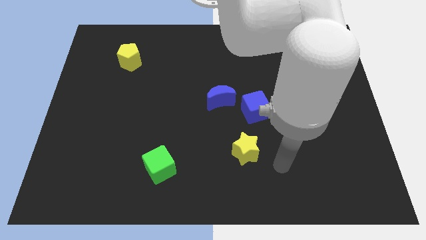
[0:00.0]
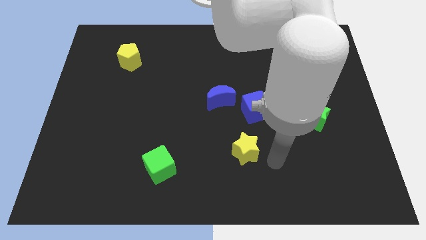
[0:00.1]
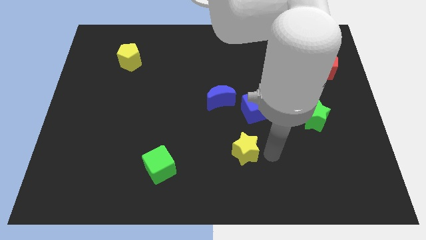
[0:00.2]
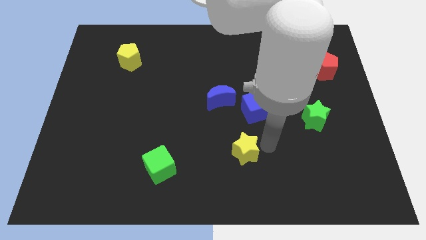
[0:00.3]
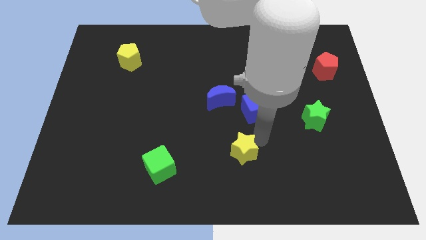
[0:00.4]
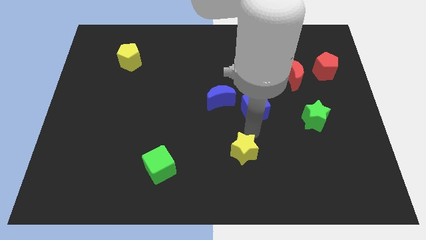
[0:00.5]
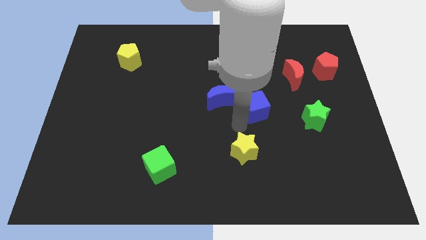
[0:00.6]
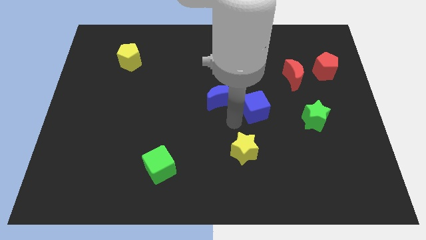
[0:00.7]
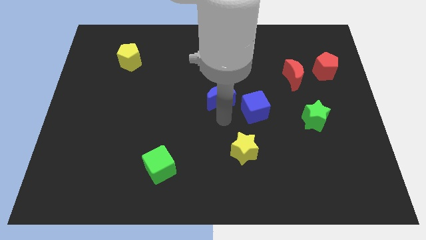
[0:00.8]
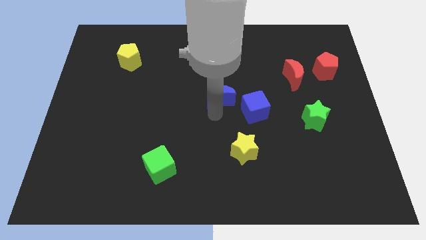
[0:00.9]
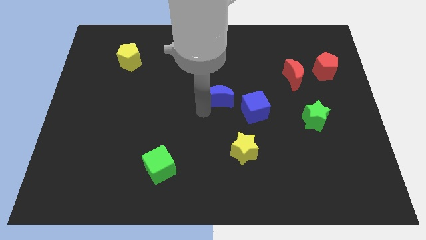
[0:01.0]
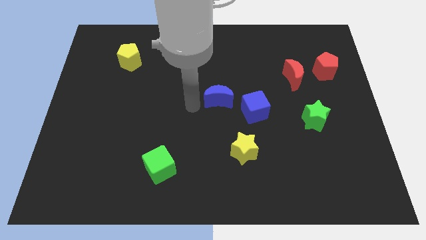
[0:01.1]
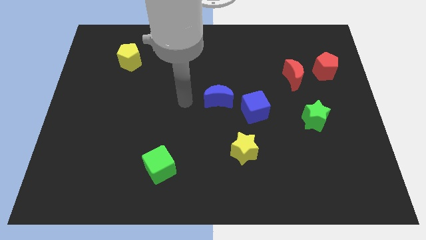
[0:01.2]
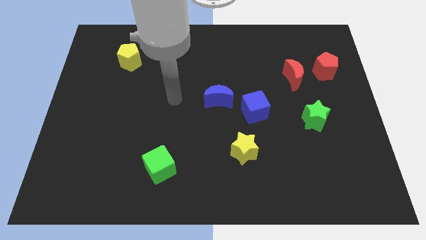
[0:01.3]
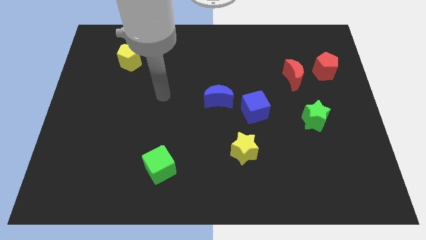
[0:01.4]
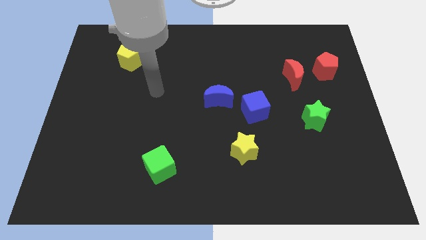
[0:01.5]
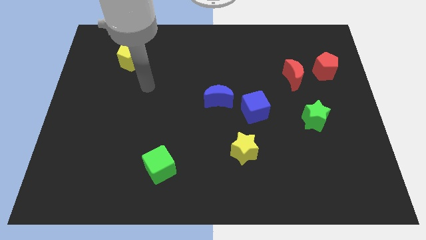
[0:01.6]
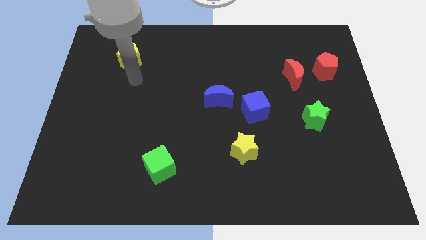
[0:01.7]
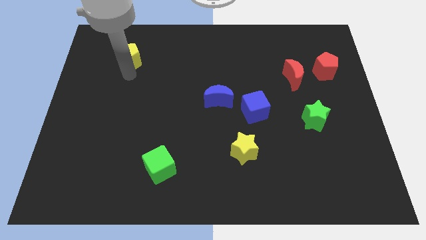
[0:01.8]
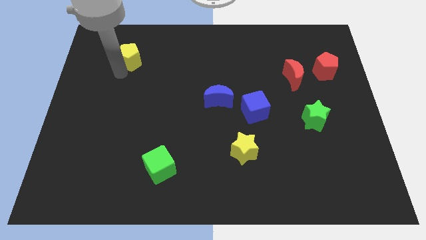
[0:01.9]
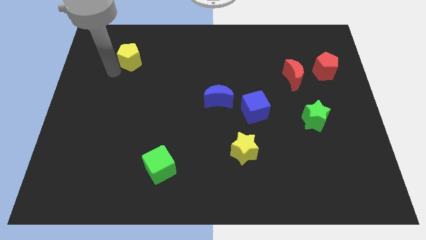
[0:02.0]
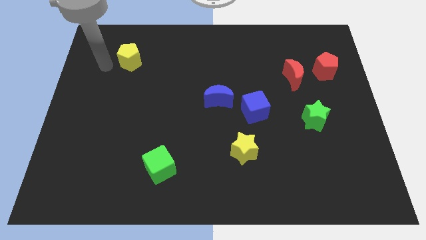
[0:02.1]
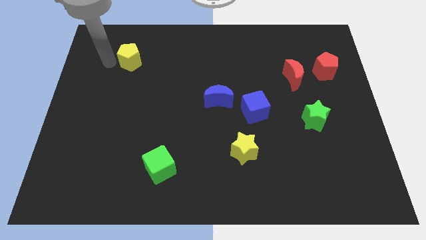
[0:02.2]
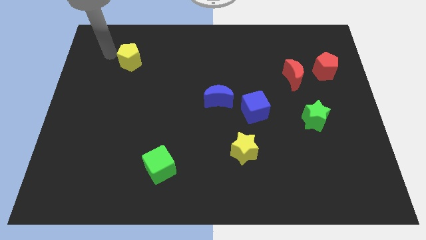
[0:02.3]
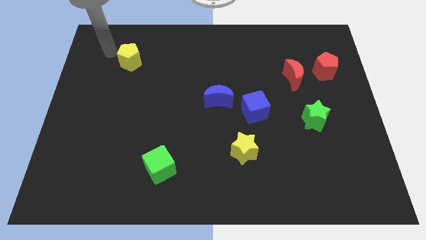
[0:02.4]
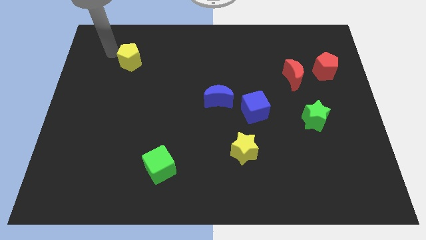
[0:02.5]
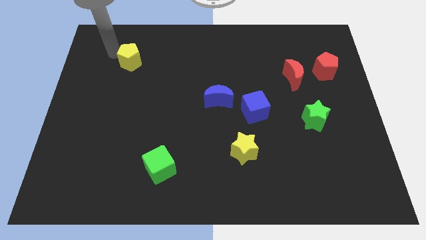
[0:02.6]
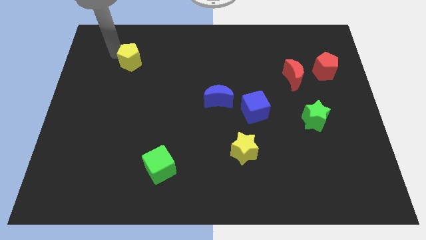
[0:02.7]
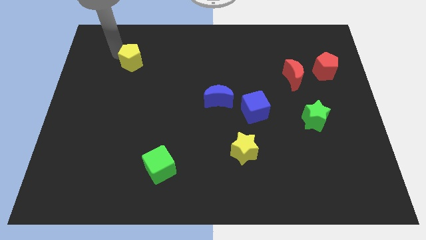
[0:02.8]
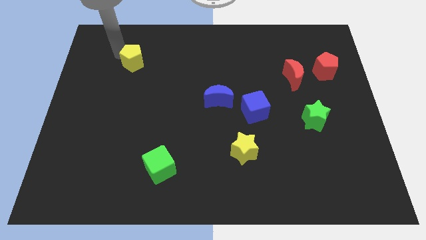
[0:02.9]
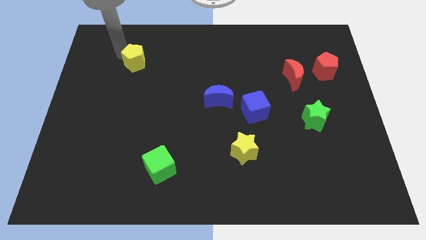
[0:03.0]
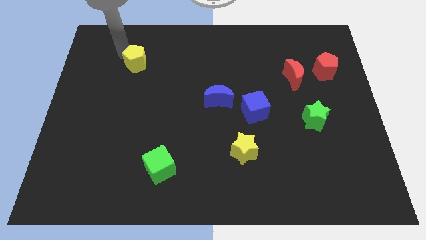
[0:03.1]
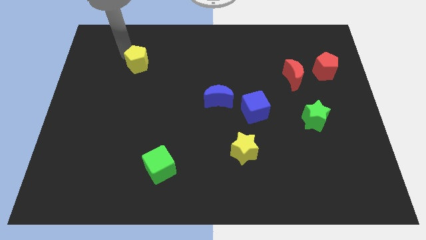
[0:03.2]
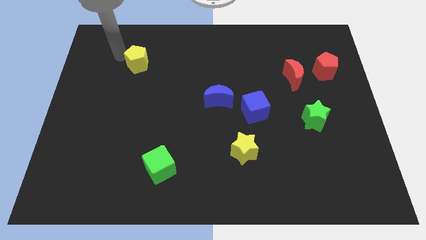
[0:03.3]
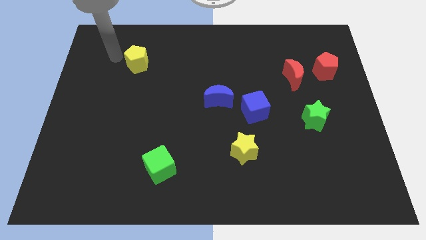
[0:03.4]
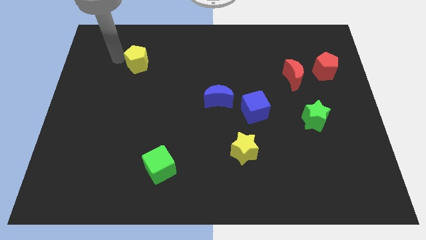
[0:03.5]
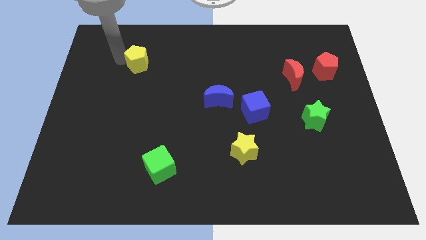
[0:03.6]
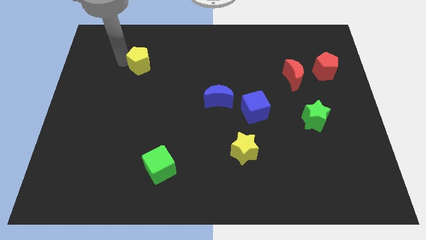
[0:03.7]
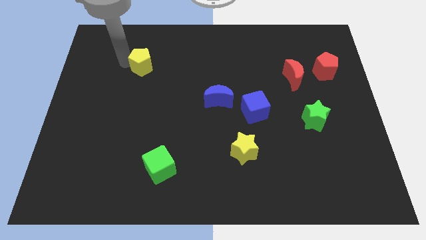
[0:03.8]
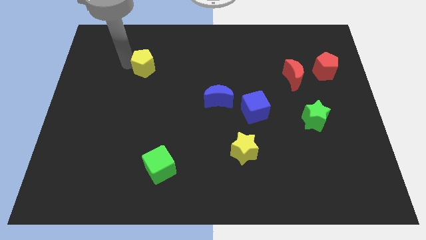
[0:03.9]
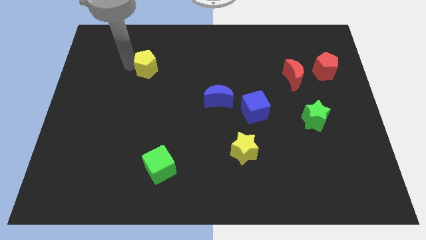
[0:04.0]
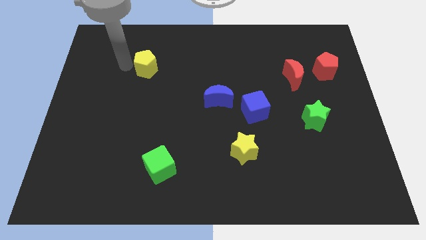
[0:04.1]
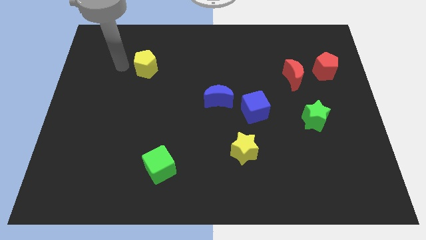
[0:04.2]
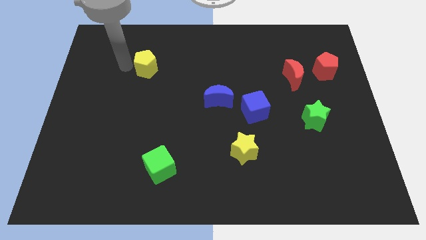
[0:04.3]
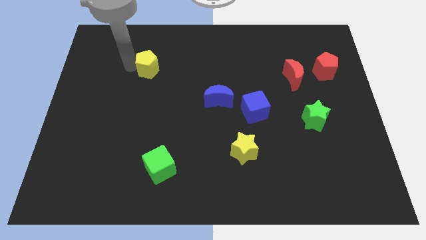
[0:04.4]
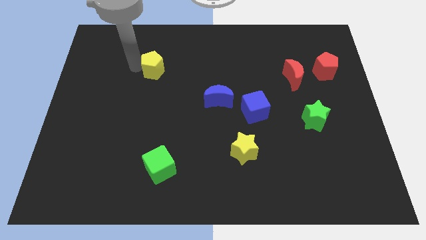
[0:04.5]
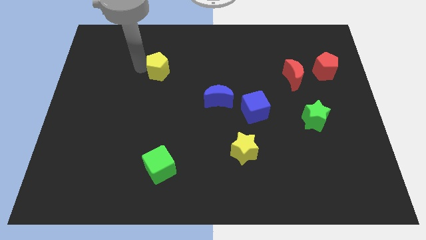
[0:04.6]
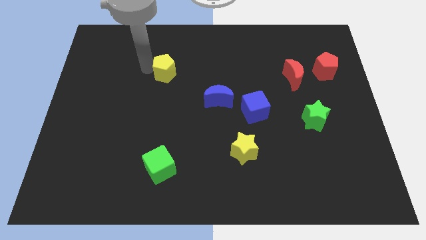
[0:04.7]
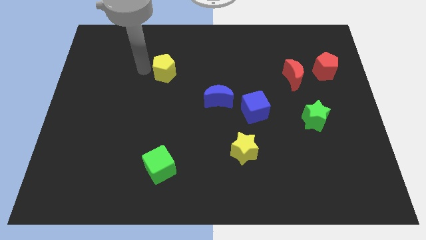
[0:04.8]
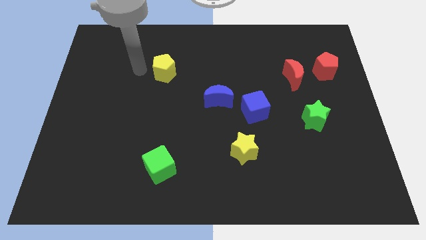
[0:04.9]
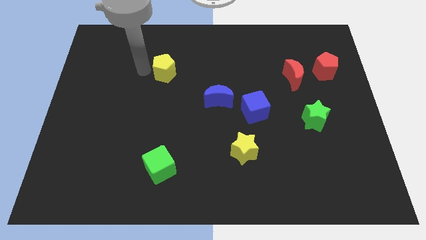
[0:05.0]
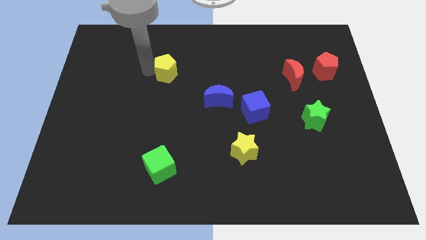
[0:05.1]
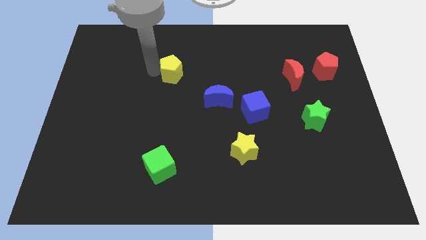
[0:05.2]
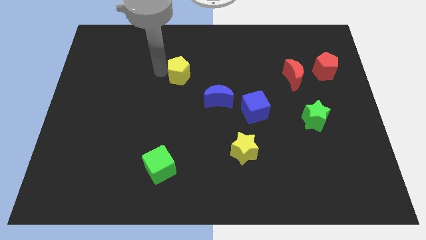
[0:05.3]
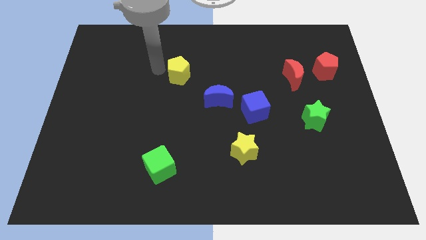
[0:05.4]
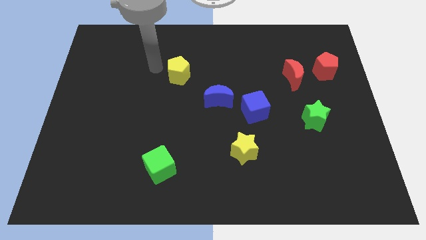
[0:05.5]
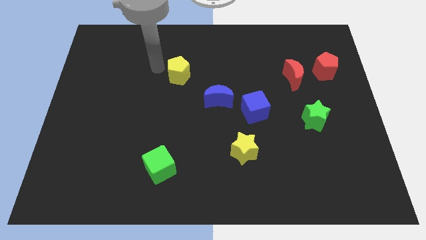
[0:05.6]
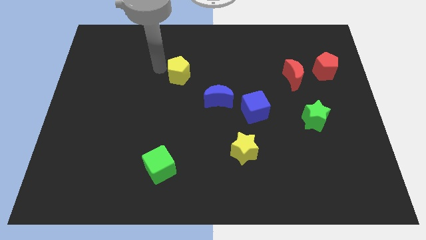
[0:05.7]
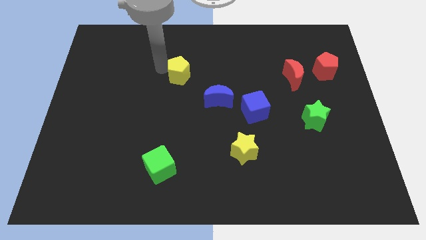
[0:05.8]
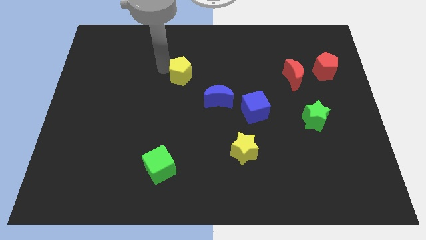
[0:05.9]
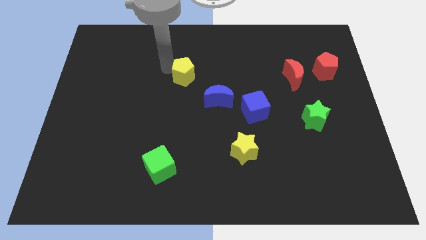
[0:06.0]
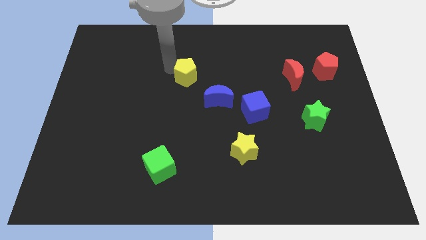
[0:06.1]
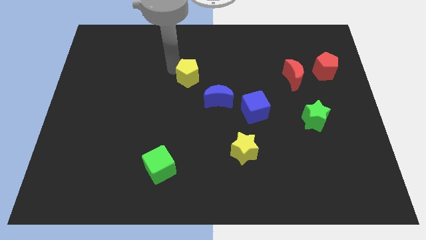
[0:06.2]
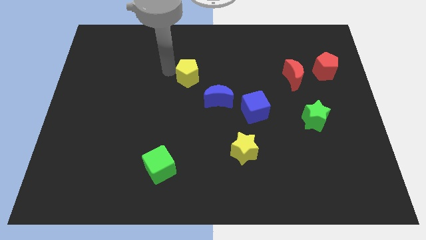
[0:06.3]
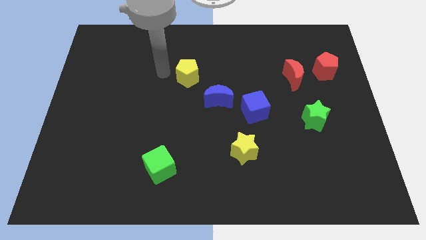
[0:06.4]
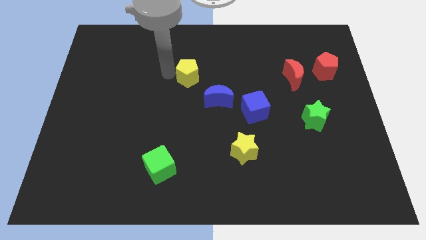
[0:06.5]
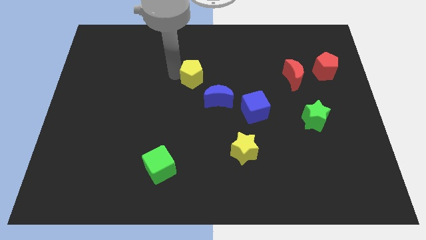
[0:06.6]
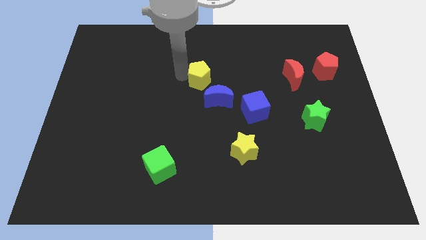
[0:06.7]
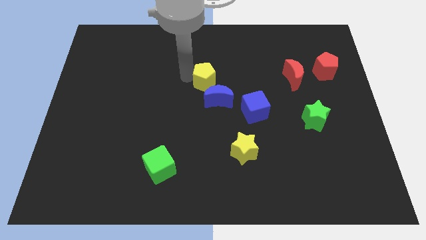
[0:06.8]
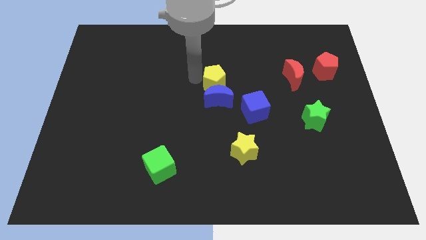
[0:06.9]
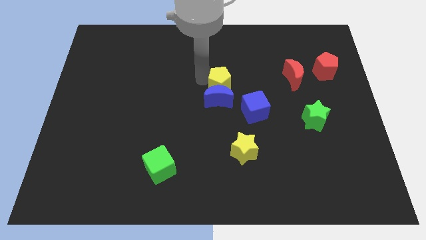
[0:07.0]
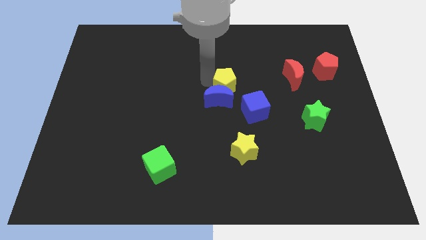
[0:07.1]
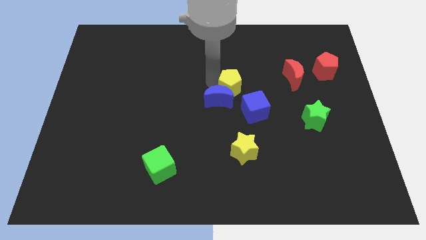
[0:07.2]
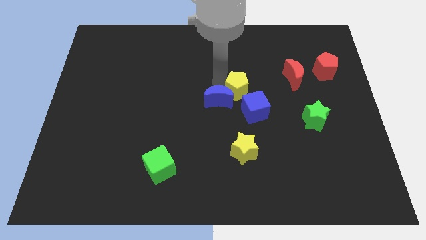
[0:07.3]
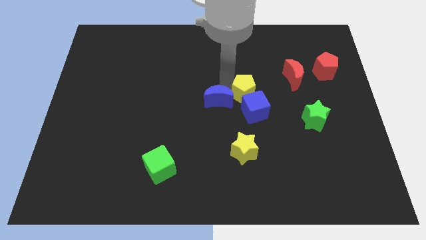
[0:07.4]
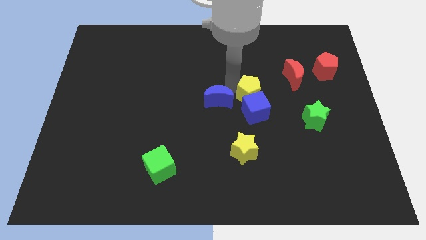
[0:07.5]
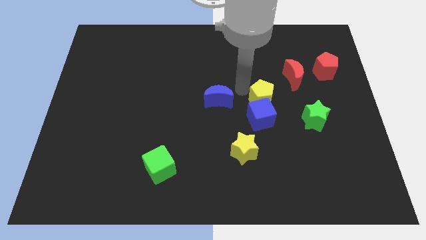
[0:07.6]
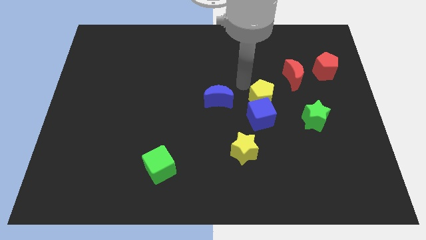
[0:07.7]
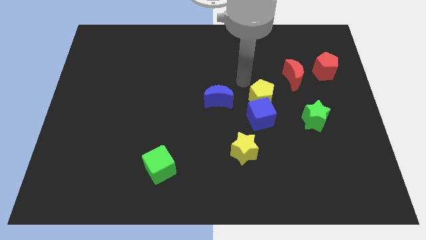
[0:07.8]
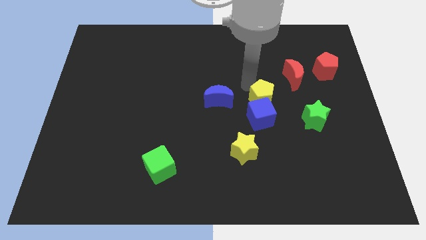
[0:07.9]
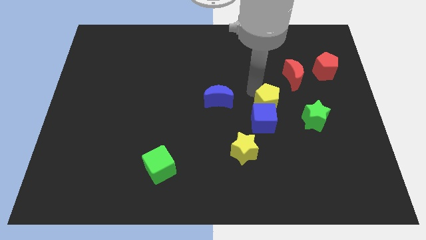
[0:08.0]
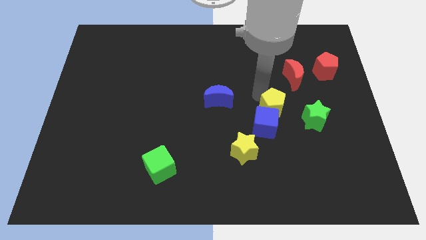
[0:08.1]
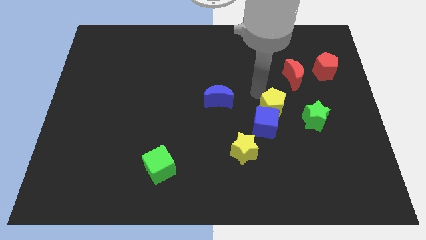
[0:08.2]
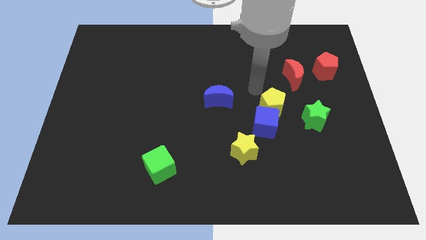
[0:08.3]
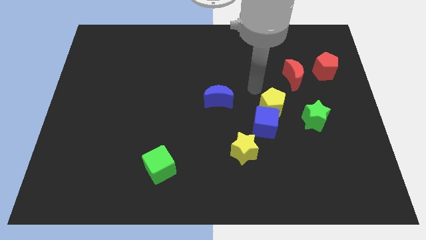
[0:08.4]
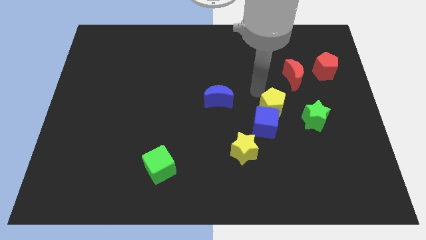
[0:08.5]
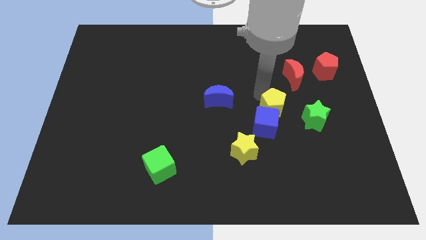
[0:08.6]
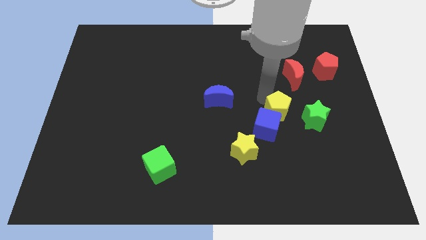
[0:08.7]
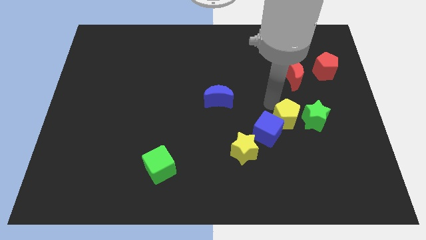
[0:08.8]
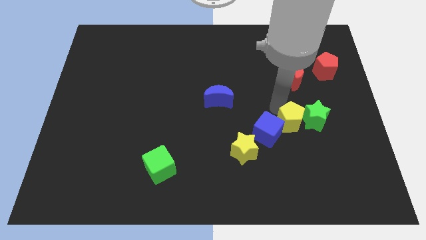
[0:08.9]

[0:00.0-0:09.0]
push the yellow pentagon to the bottom left side of the green star
